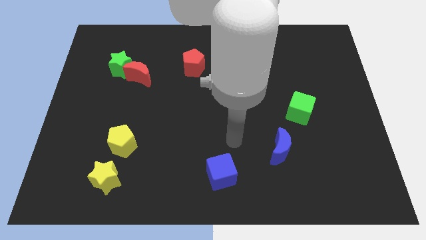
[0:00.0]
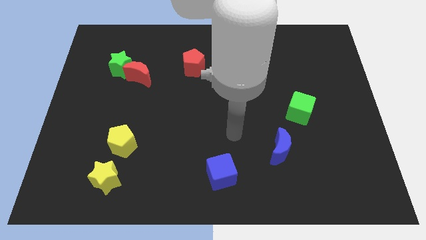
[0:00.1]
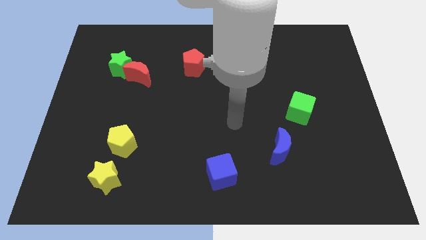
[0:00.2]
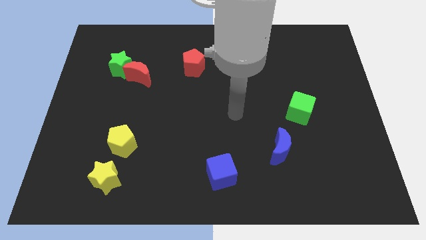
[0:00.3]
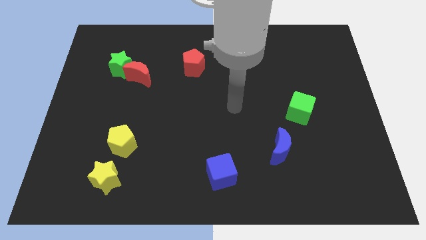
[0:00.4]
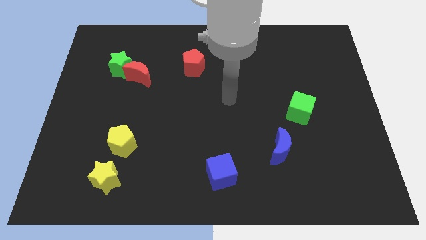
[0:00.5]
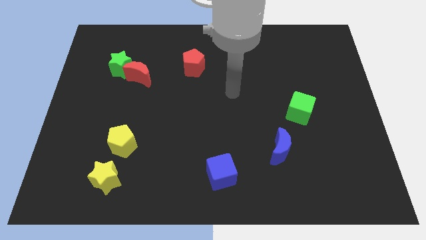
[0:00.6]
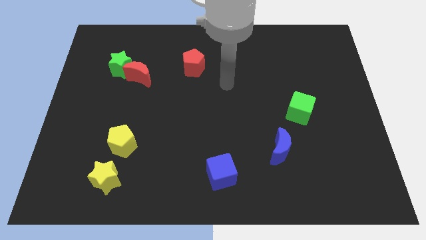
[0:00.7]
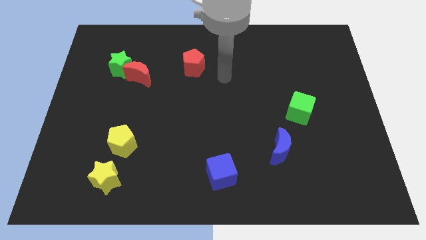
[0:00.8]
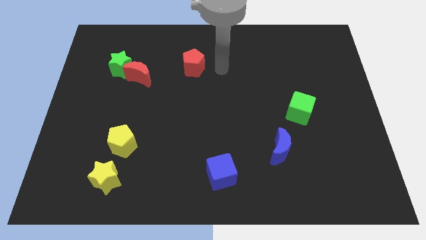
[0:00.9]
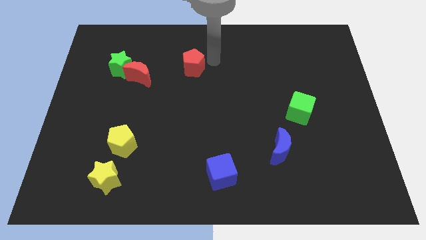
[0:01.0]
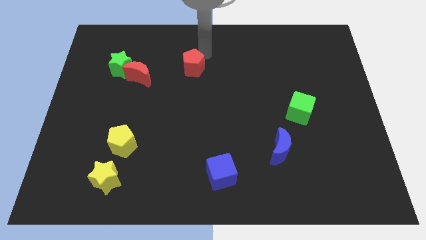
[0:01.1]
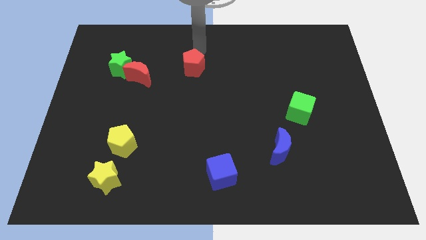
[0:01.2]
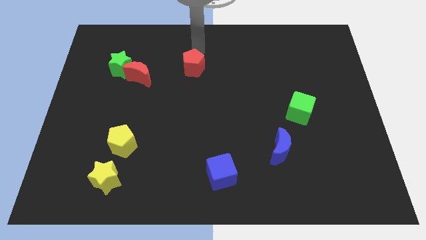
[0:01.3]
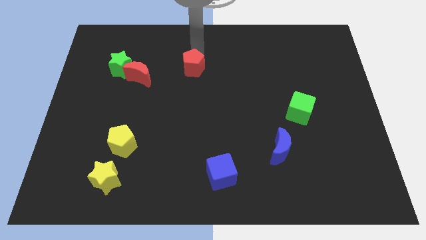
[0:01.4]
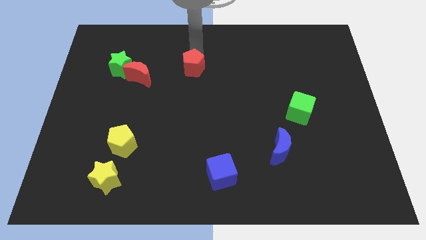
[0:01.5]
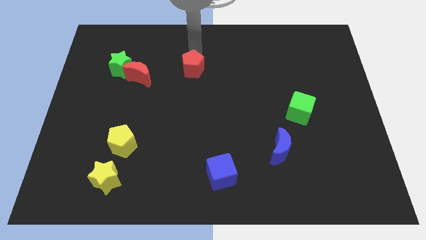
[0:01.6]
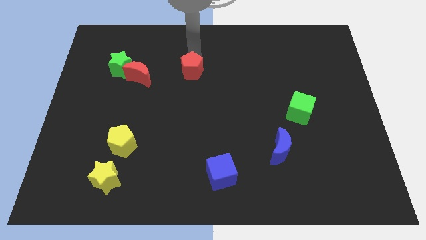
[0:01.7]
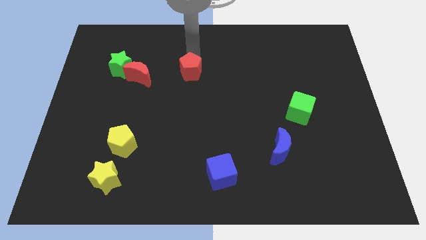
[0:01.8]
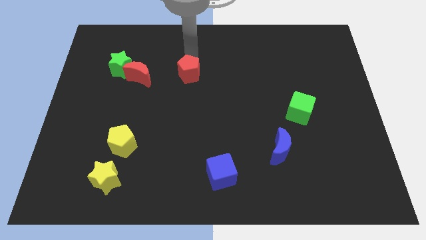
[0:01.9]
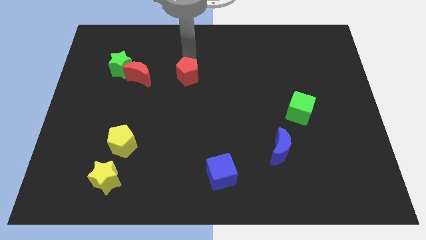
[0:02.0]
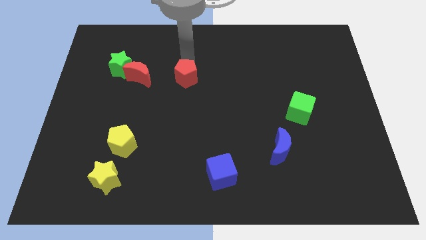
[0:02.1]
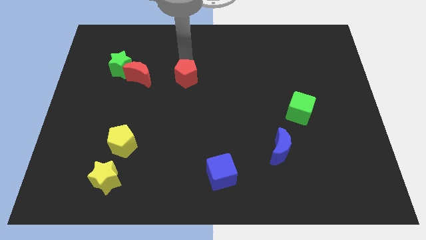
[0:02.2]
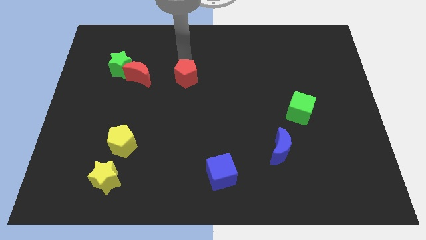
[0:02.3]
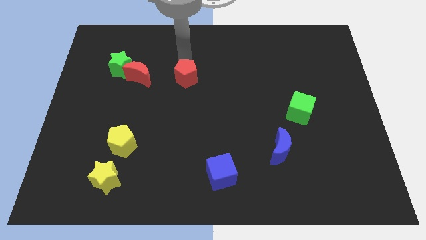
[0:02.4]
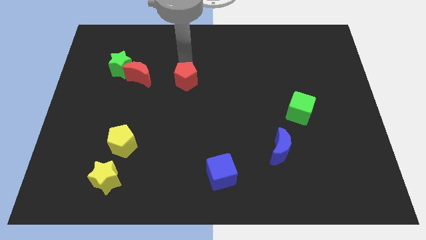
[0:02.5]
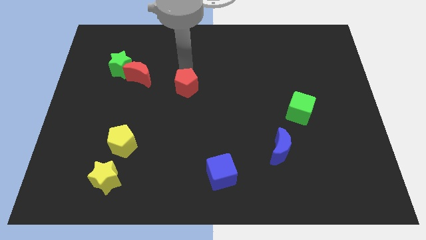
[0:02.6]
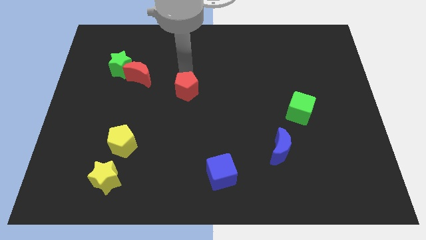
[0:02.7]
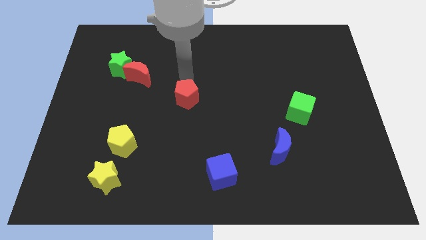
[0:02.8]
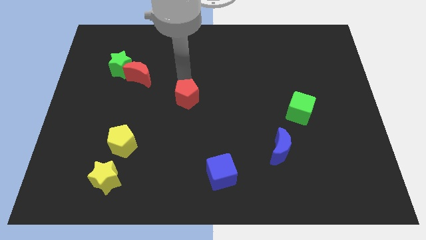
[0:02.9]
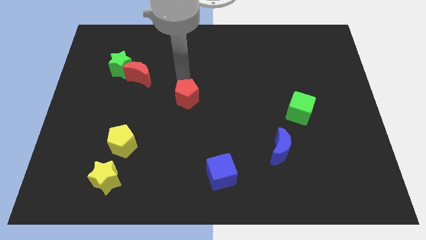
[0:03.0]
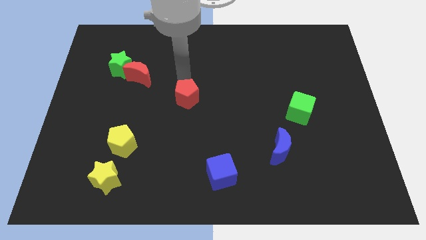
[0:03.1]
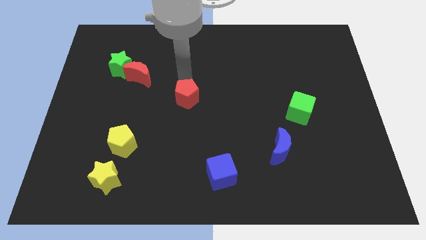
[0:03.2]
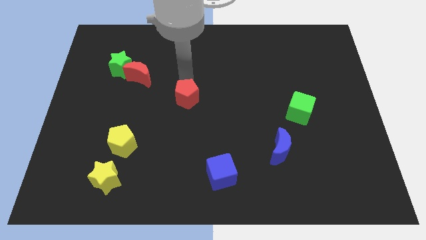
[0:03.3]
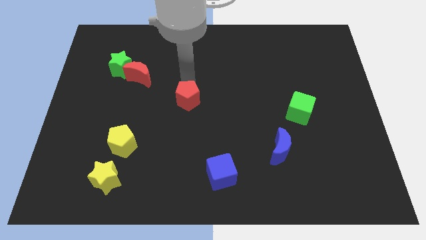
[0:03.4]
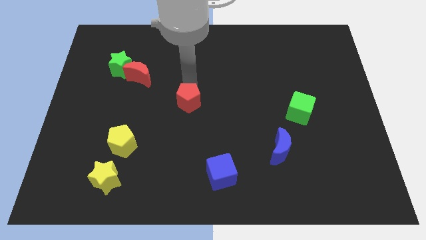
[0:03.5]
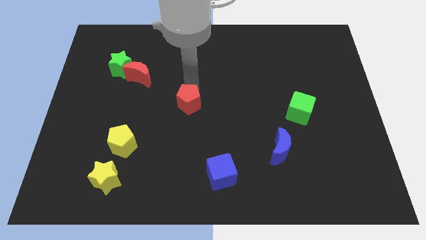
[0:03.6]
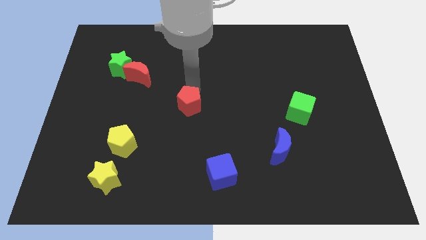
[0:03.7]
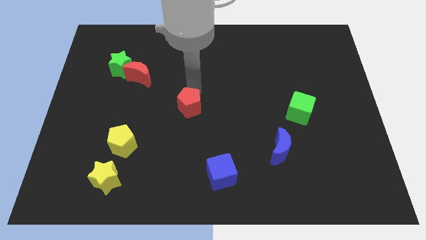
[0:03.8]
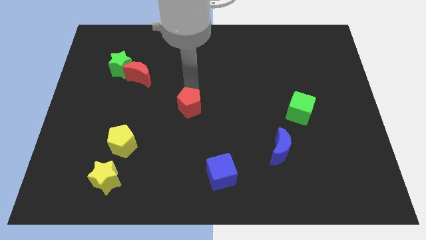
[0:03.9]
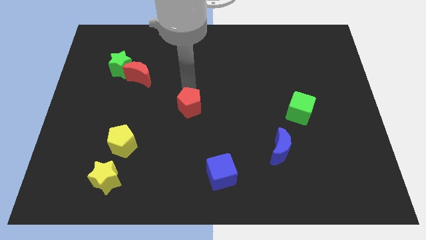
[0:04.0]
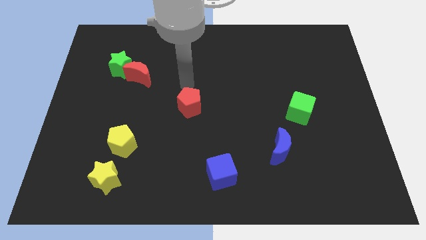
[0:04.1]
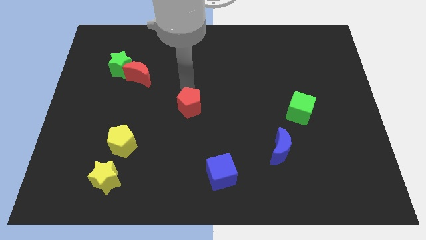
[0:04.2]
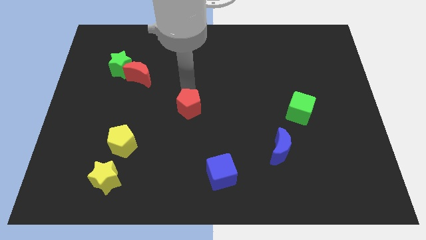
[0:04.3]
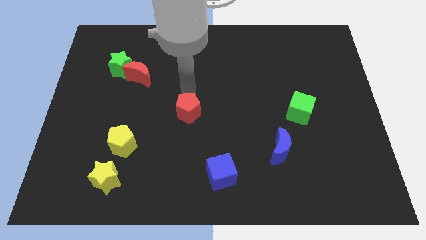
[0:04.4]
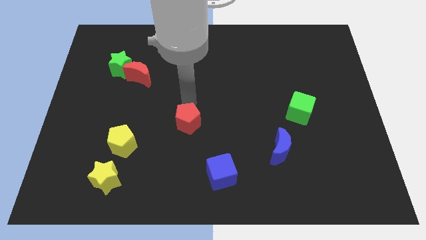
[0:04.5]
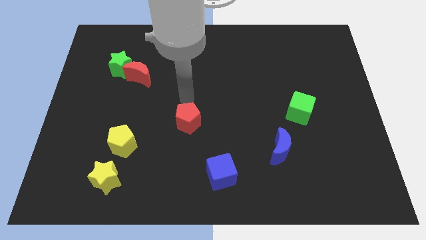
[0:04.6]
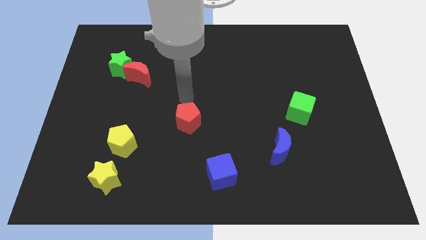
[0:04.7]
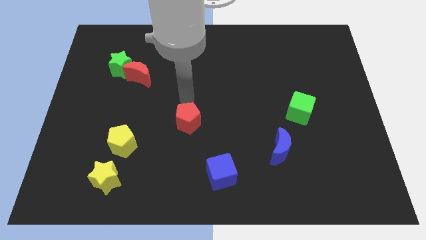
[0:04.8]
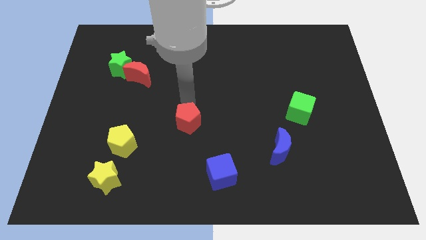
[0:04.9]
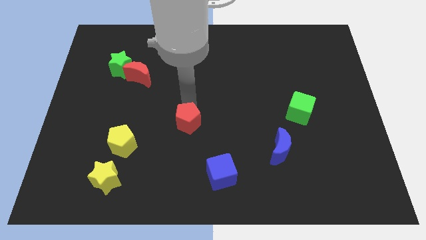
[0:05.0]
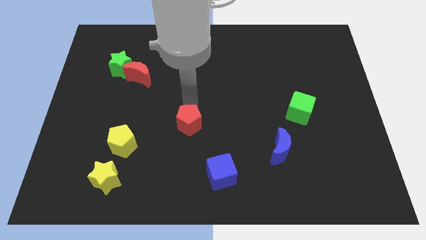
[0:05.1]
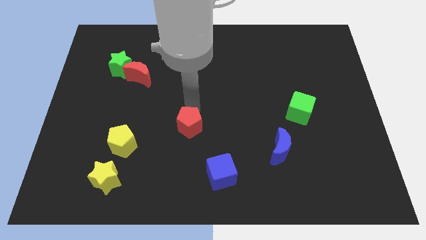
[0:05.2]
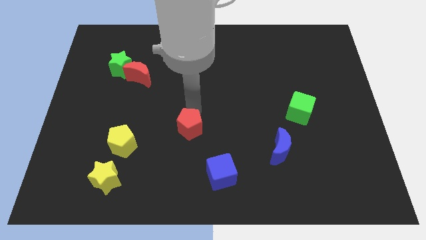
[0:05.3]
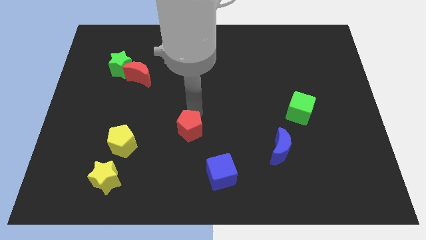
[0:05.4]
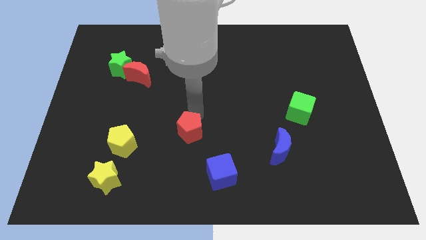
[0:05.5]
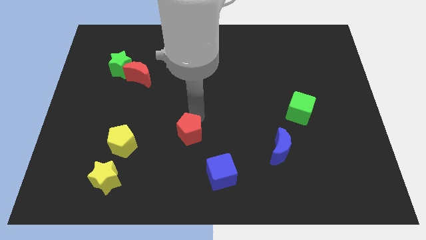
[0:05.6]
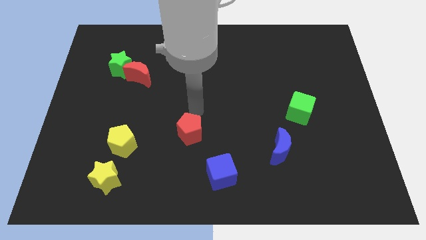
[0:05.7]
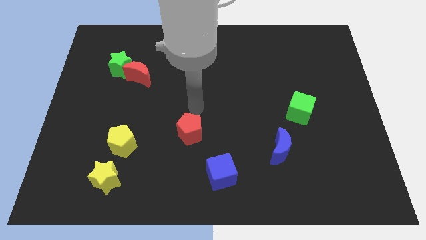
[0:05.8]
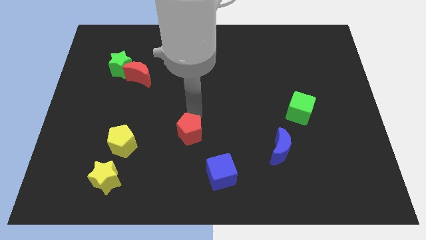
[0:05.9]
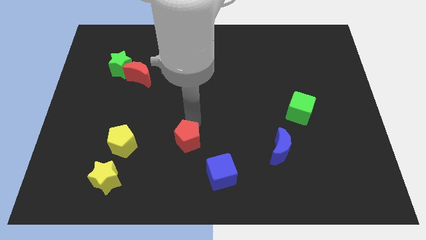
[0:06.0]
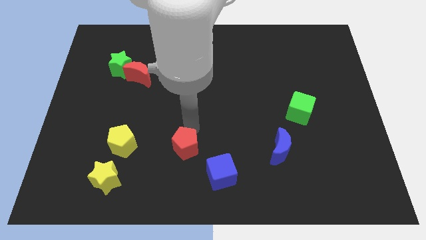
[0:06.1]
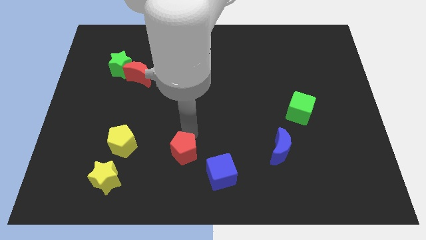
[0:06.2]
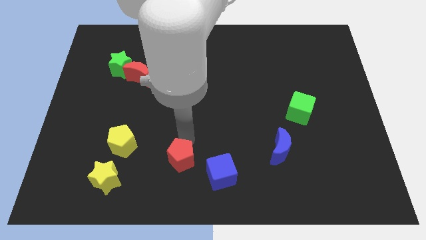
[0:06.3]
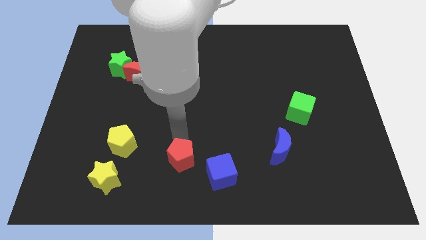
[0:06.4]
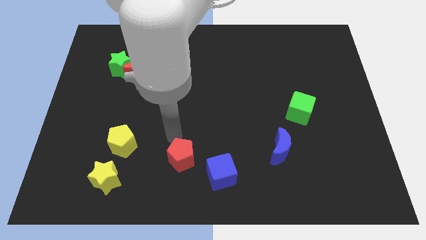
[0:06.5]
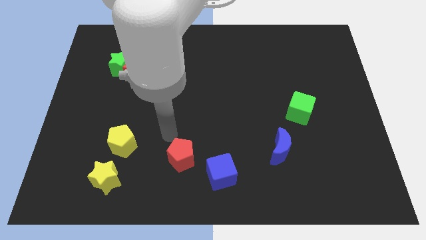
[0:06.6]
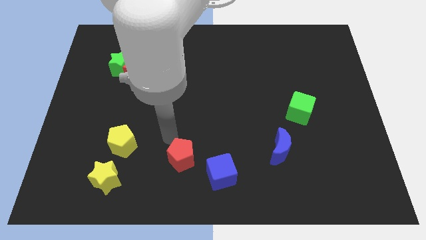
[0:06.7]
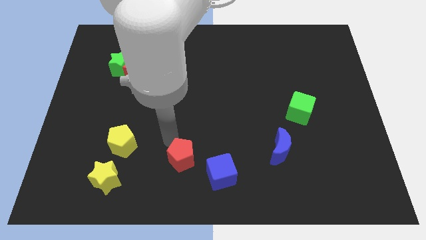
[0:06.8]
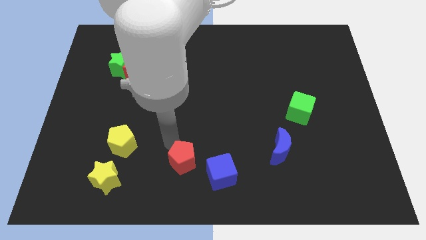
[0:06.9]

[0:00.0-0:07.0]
push the red pentagon to the bottom side
